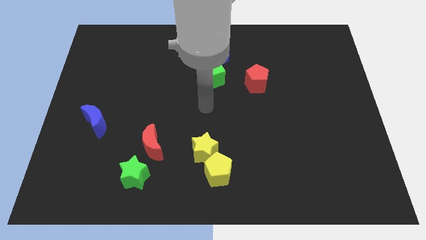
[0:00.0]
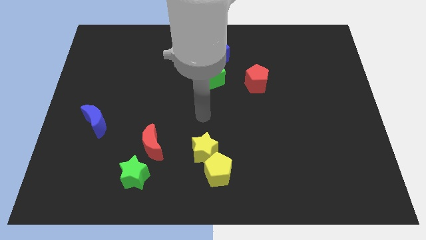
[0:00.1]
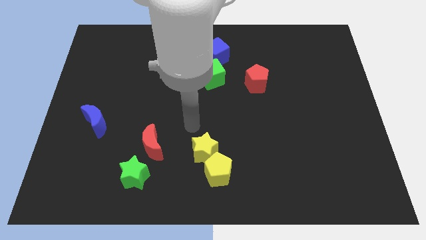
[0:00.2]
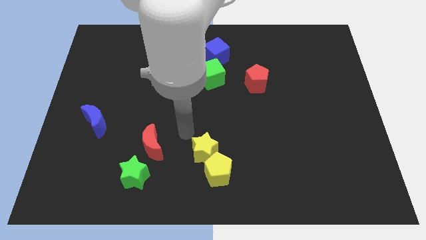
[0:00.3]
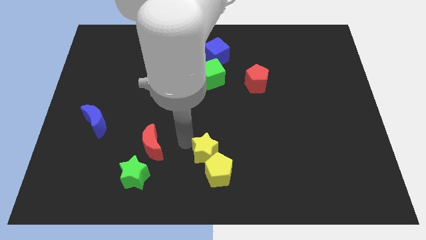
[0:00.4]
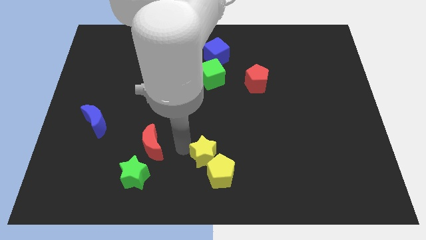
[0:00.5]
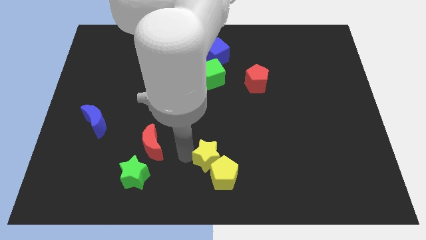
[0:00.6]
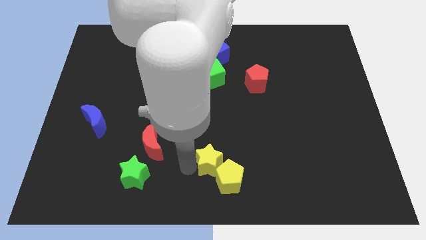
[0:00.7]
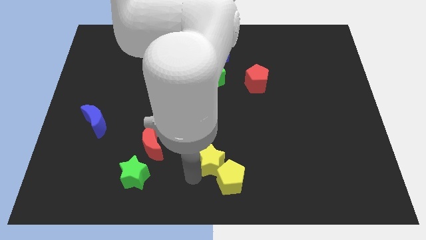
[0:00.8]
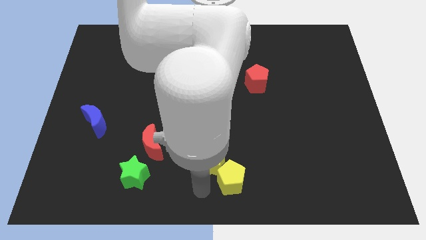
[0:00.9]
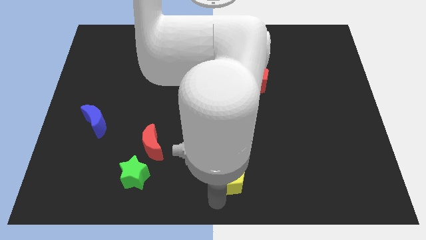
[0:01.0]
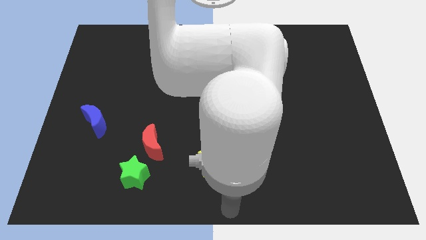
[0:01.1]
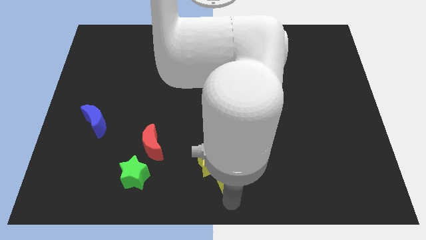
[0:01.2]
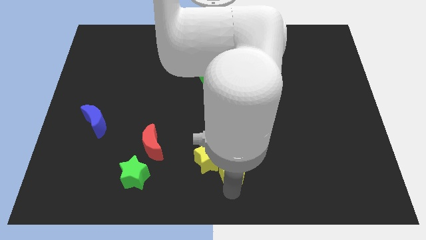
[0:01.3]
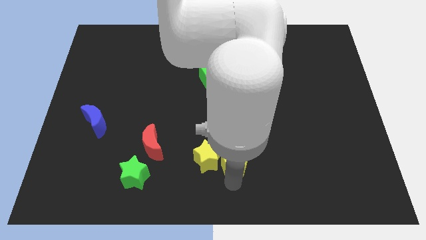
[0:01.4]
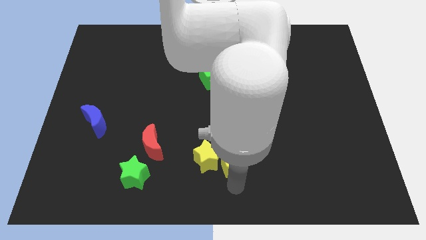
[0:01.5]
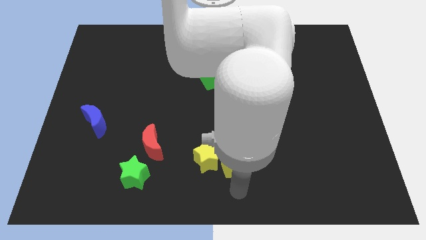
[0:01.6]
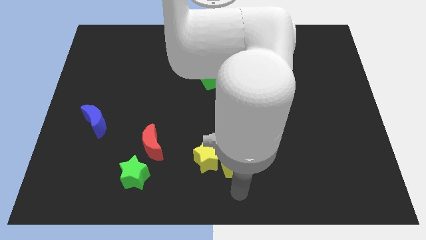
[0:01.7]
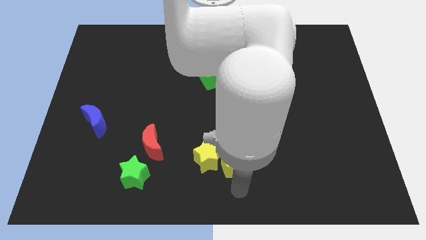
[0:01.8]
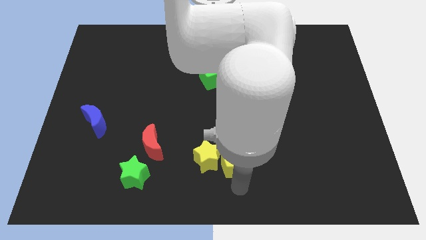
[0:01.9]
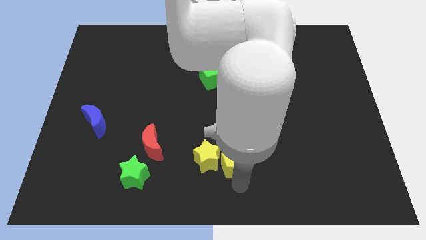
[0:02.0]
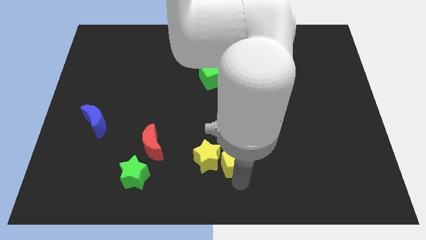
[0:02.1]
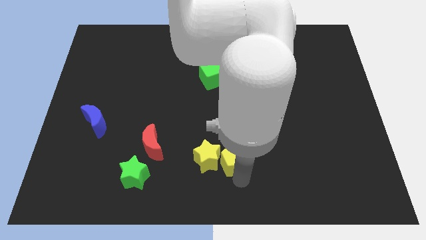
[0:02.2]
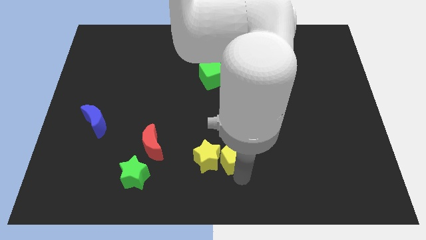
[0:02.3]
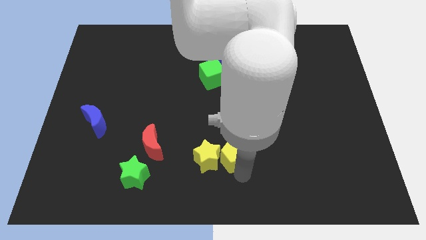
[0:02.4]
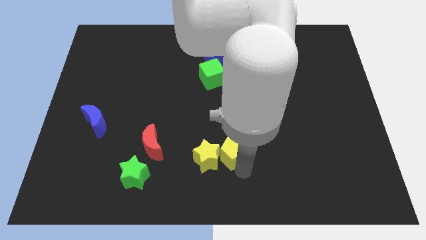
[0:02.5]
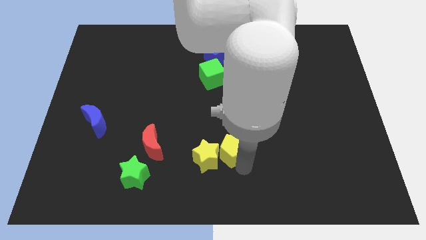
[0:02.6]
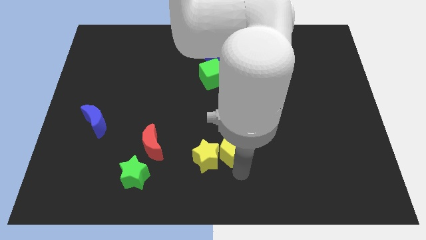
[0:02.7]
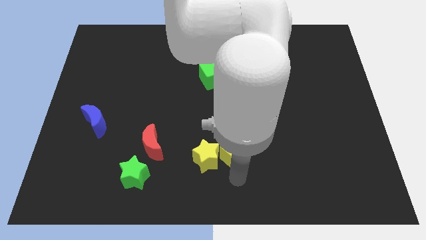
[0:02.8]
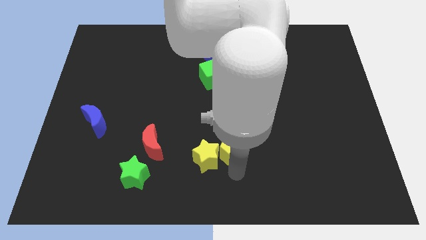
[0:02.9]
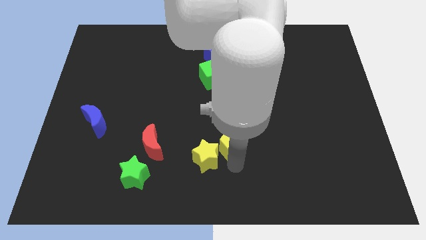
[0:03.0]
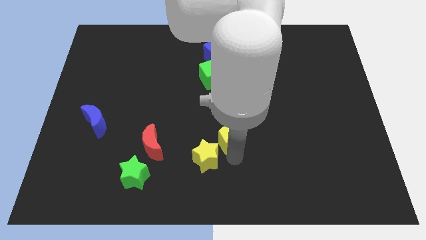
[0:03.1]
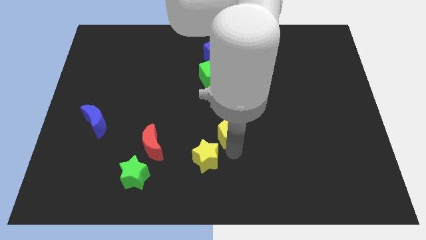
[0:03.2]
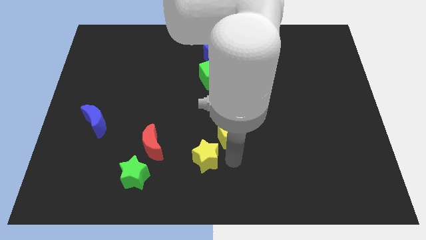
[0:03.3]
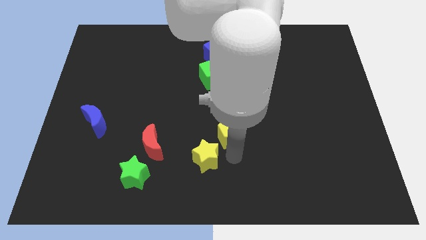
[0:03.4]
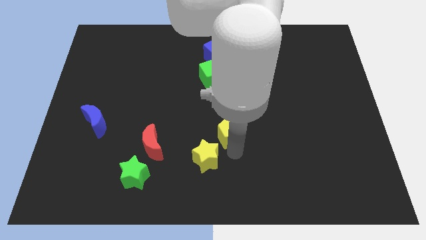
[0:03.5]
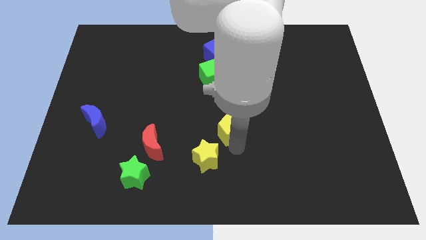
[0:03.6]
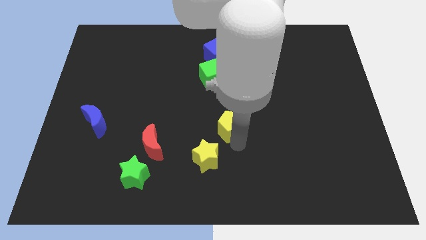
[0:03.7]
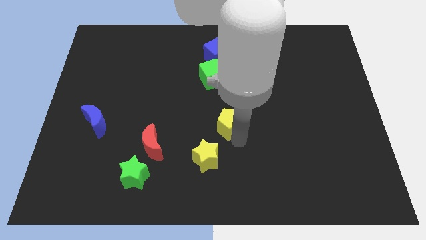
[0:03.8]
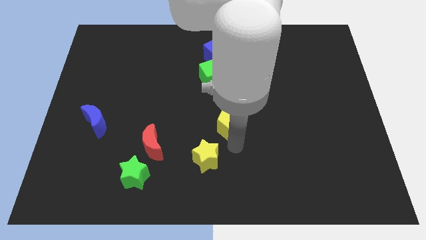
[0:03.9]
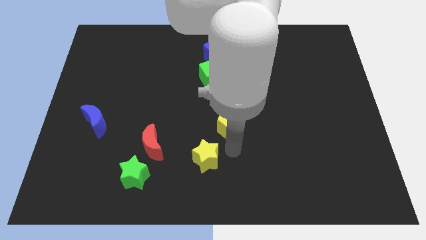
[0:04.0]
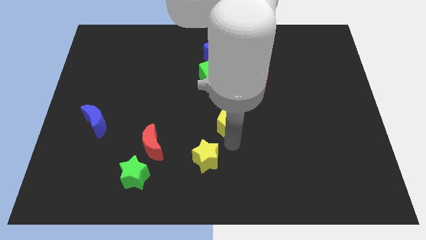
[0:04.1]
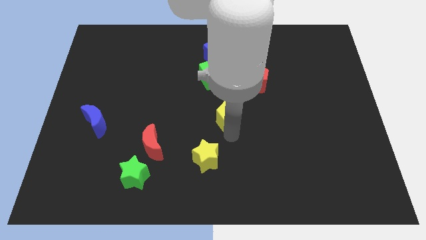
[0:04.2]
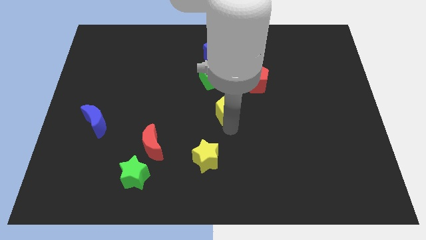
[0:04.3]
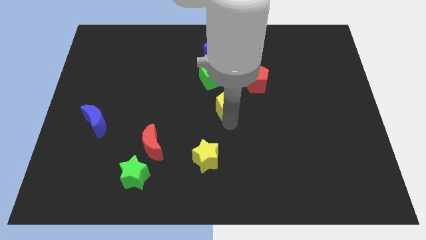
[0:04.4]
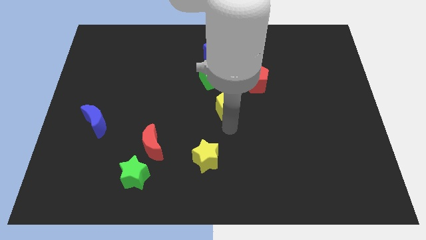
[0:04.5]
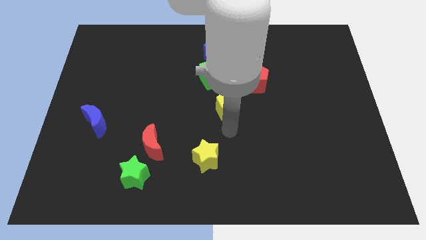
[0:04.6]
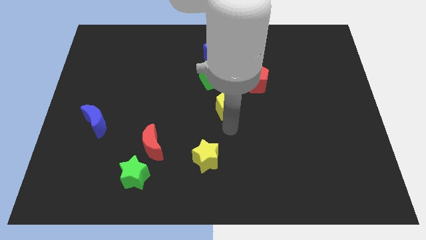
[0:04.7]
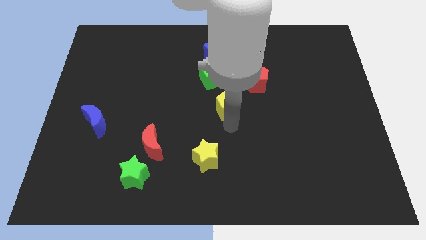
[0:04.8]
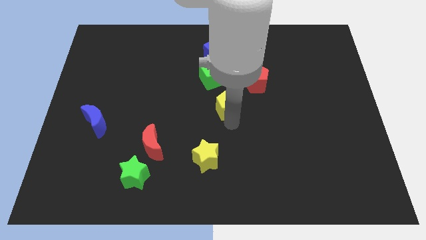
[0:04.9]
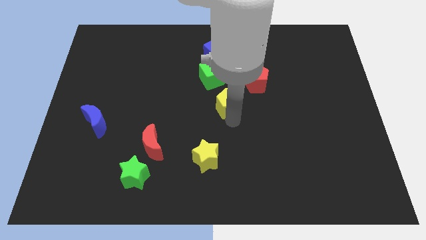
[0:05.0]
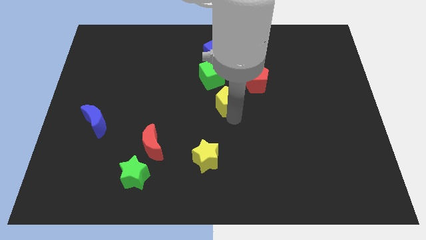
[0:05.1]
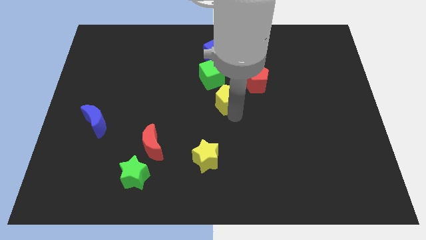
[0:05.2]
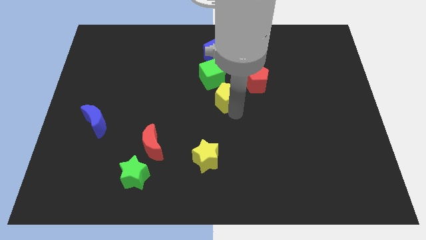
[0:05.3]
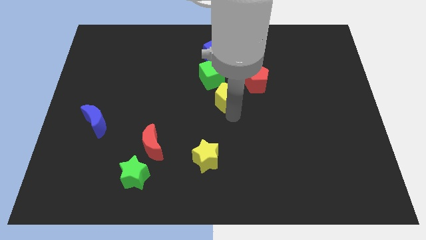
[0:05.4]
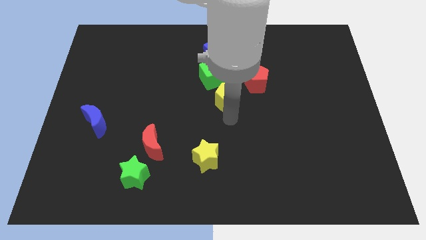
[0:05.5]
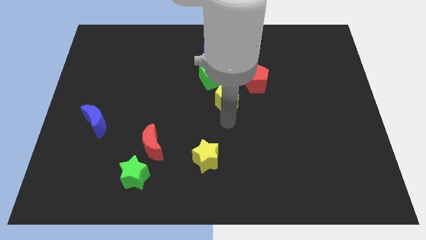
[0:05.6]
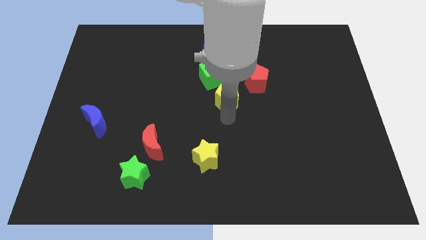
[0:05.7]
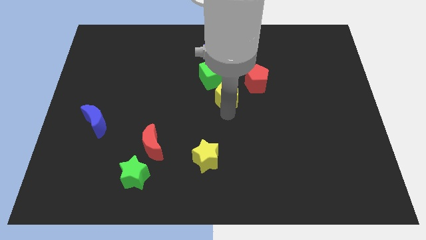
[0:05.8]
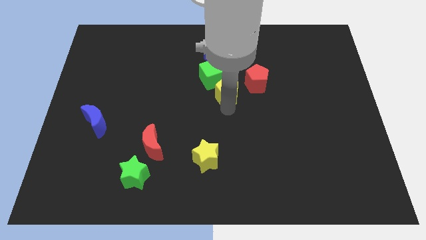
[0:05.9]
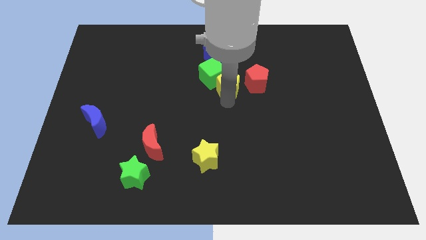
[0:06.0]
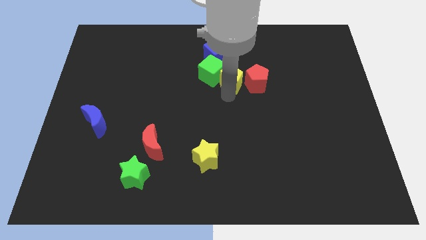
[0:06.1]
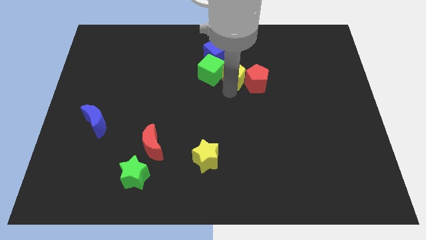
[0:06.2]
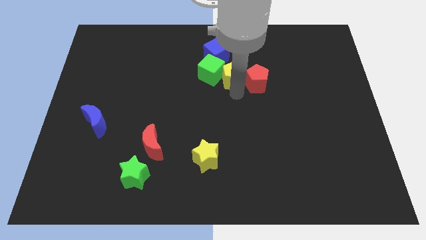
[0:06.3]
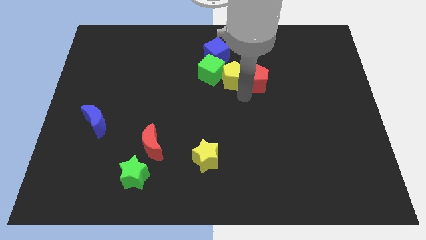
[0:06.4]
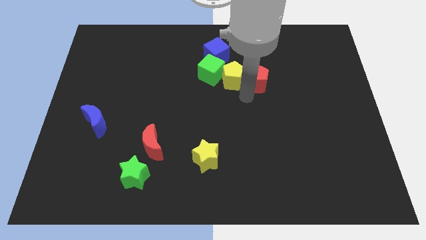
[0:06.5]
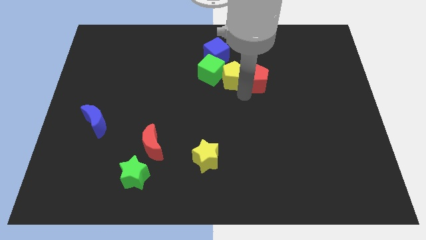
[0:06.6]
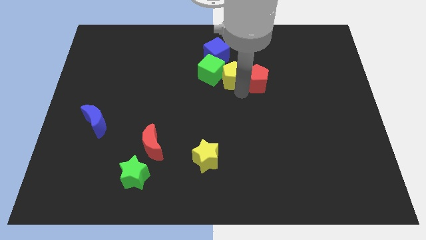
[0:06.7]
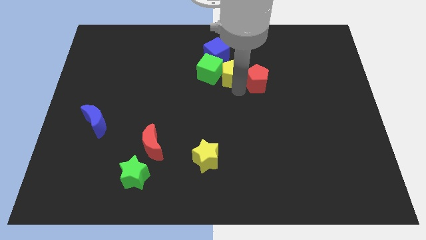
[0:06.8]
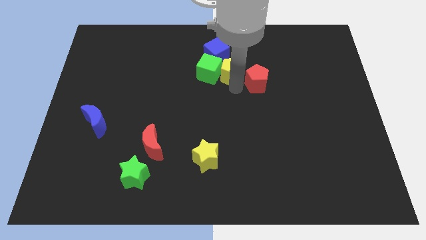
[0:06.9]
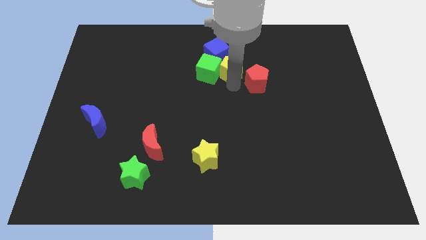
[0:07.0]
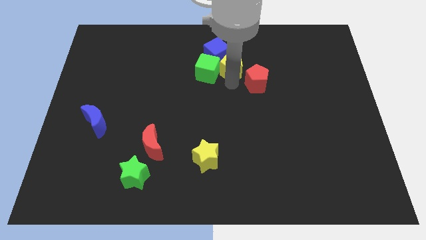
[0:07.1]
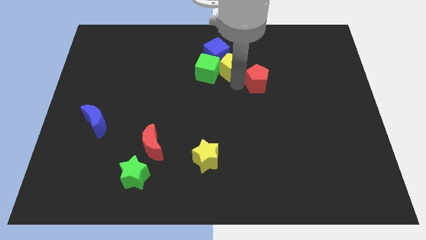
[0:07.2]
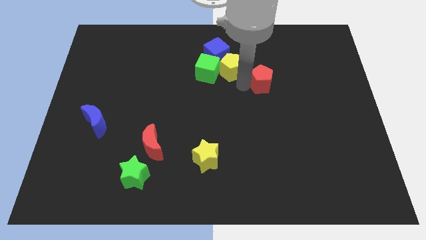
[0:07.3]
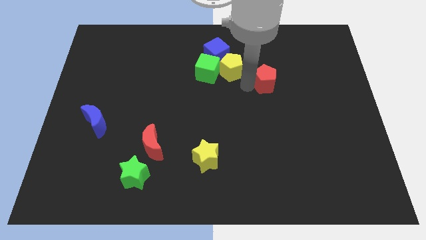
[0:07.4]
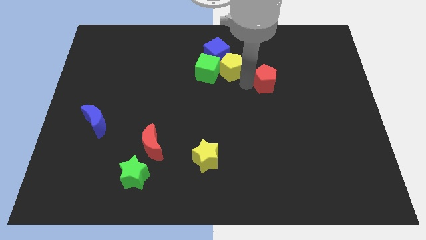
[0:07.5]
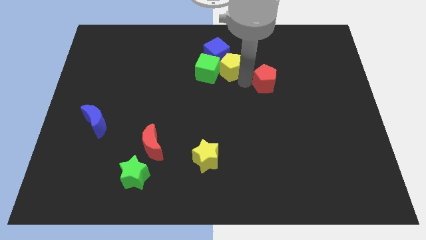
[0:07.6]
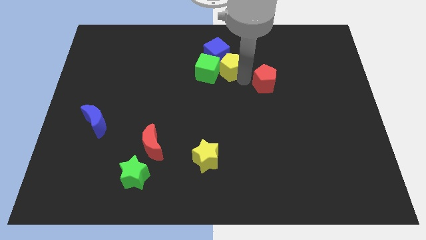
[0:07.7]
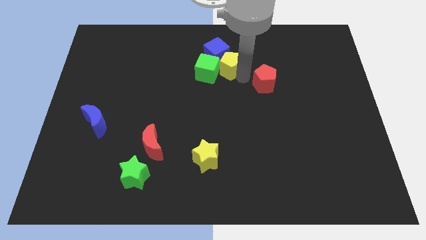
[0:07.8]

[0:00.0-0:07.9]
move the yellow pentagon to the blue cube
